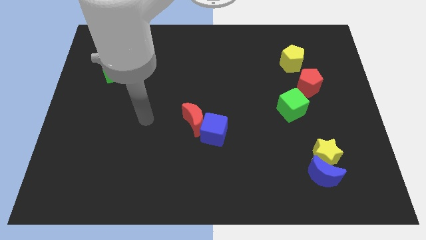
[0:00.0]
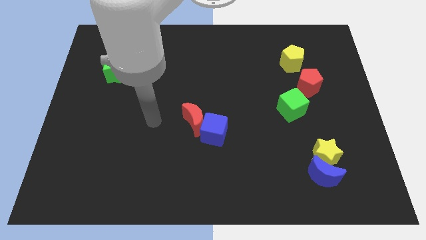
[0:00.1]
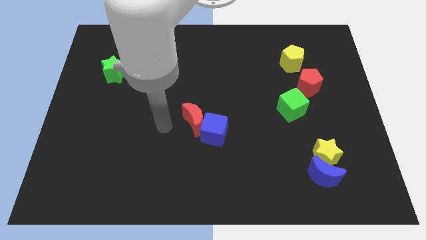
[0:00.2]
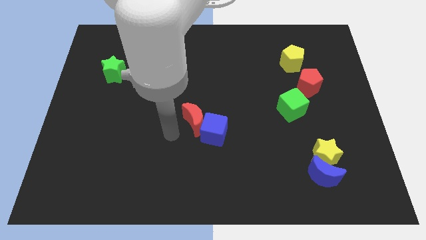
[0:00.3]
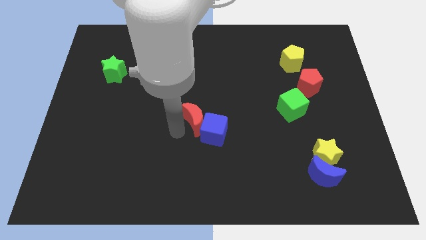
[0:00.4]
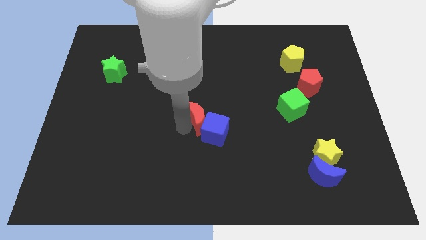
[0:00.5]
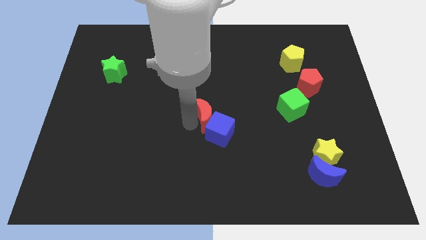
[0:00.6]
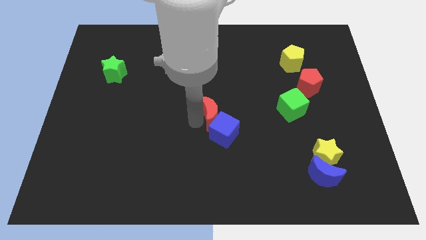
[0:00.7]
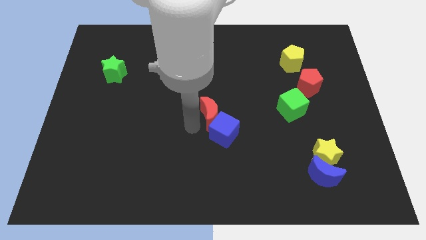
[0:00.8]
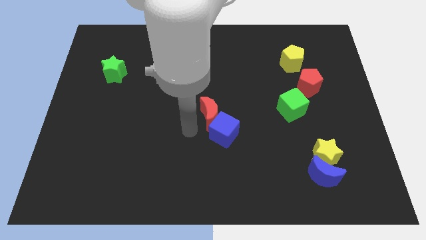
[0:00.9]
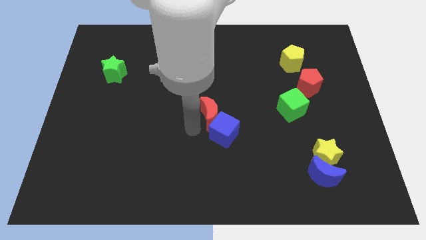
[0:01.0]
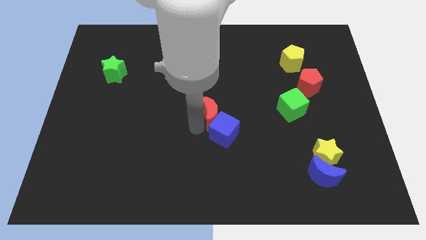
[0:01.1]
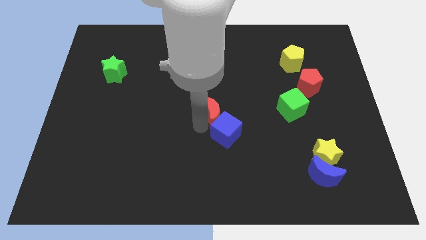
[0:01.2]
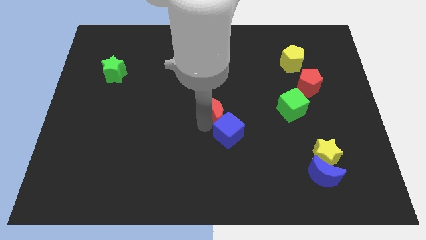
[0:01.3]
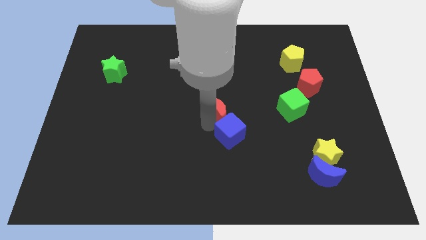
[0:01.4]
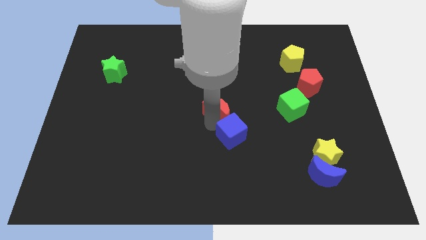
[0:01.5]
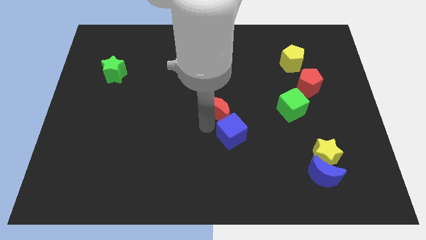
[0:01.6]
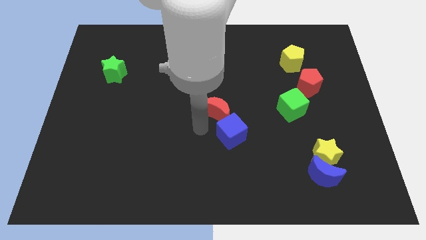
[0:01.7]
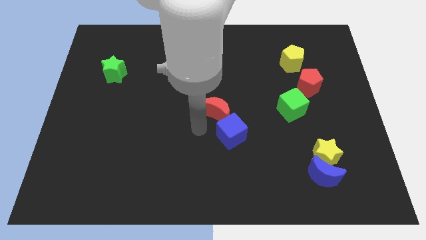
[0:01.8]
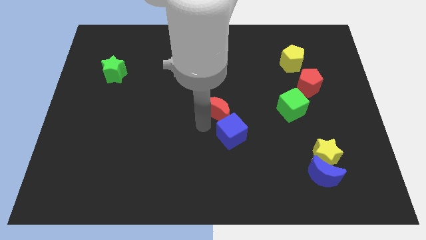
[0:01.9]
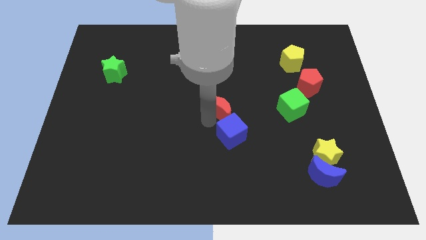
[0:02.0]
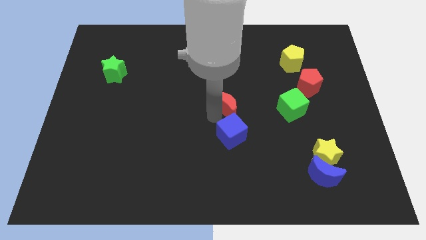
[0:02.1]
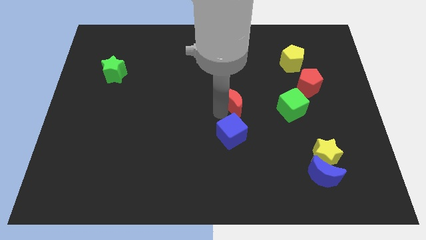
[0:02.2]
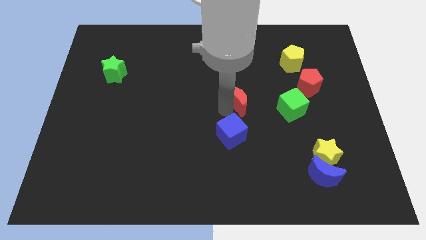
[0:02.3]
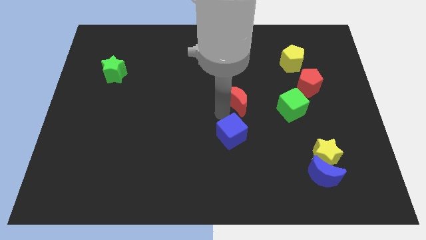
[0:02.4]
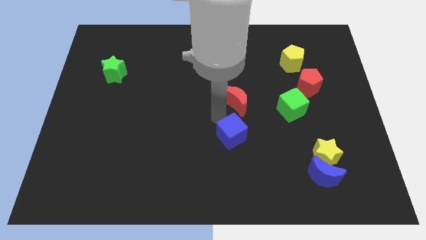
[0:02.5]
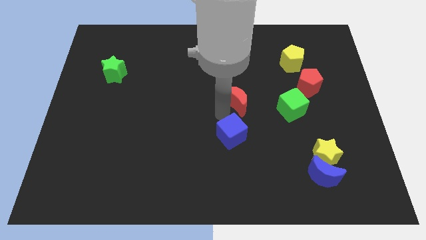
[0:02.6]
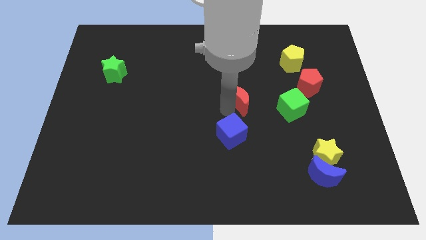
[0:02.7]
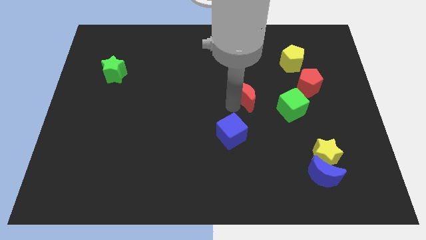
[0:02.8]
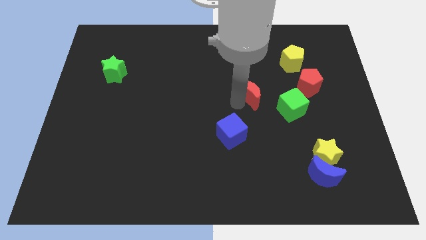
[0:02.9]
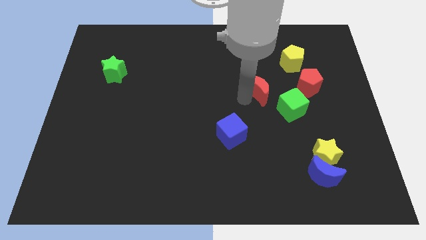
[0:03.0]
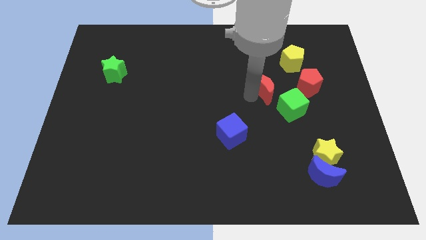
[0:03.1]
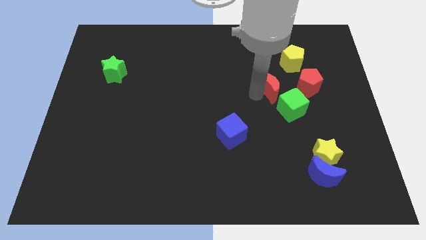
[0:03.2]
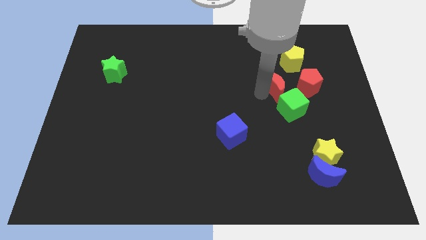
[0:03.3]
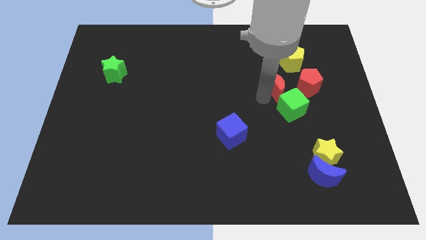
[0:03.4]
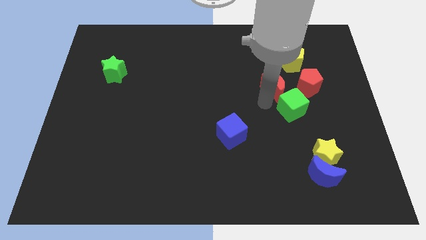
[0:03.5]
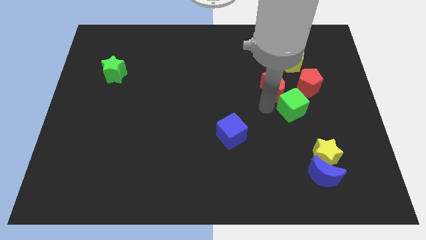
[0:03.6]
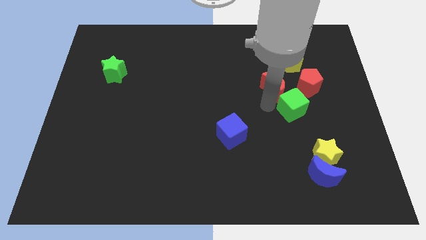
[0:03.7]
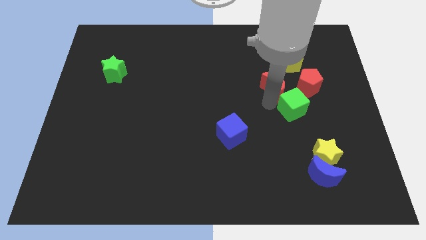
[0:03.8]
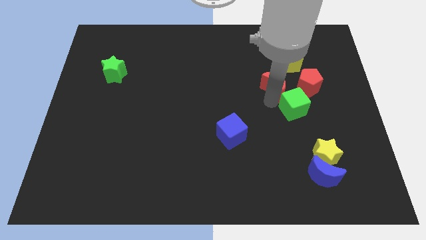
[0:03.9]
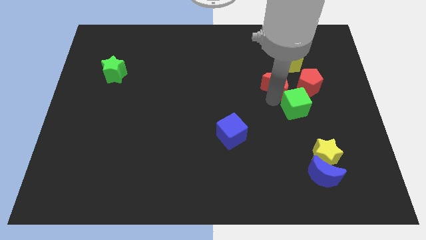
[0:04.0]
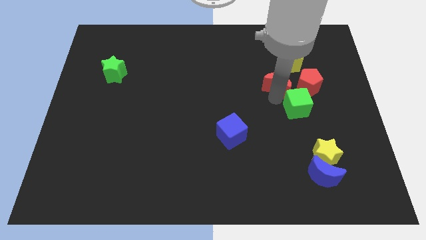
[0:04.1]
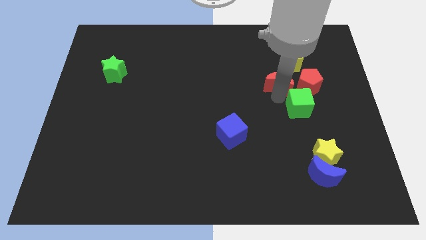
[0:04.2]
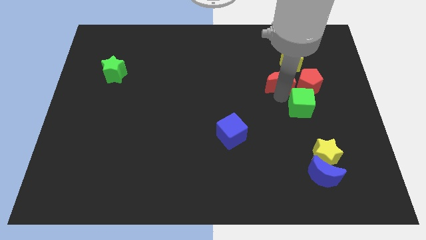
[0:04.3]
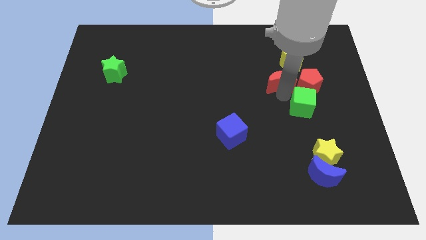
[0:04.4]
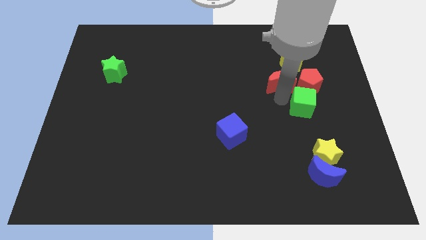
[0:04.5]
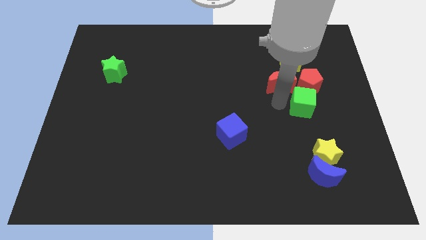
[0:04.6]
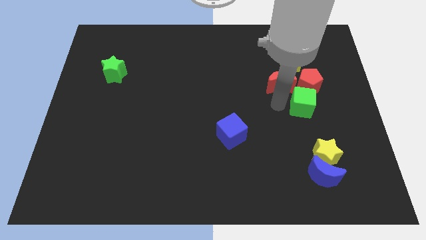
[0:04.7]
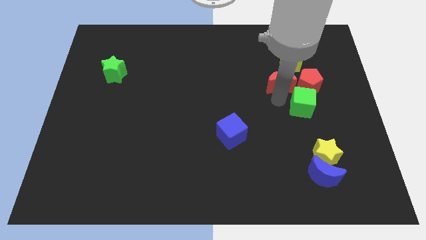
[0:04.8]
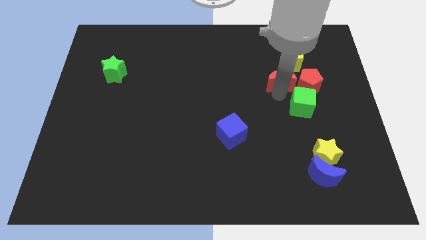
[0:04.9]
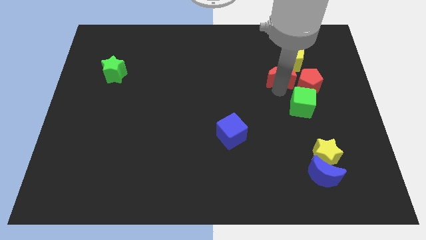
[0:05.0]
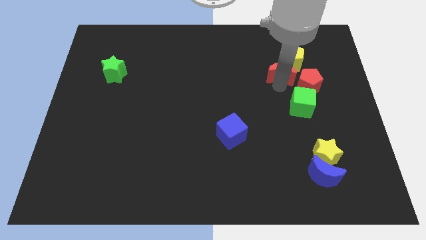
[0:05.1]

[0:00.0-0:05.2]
push the red moon next to the yellow pentagon

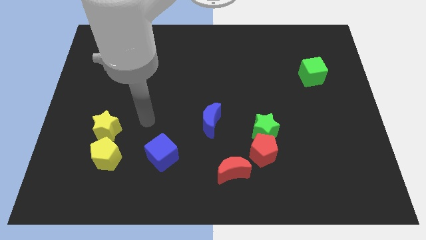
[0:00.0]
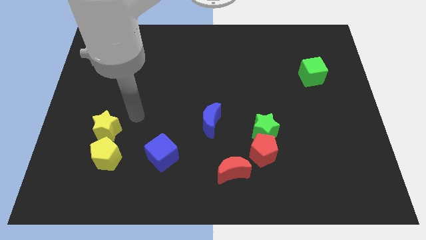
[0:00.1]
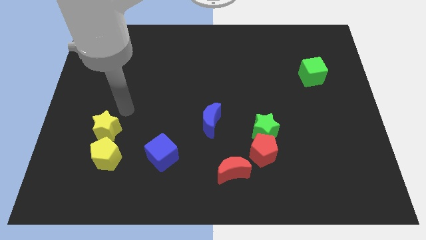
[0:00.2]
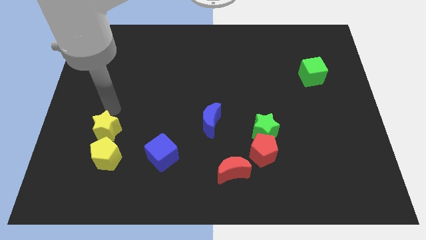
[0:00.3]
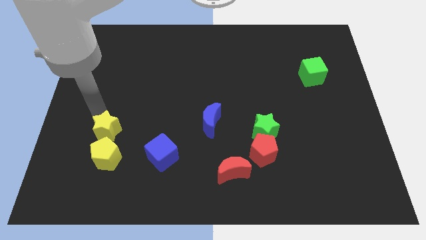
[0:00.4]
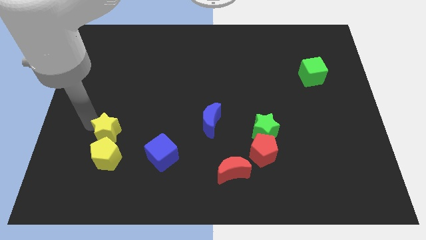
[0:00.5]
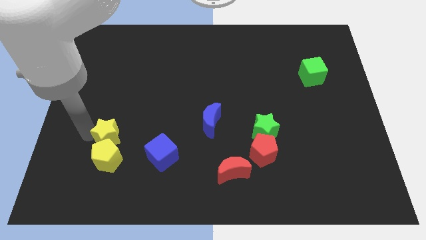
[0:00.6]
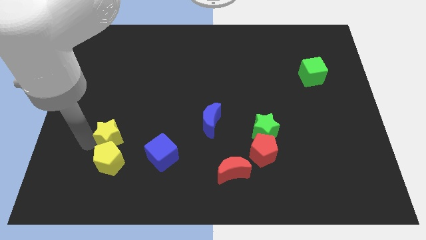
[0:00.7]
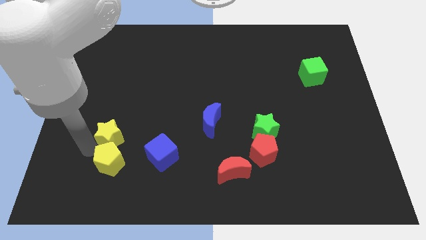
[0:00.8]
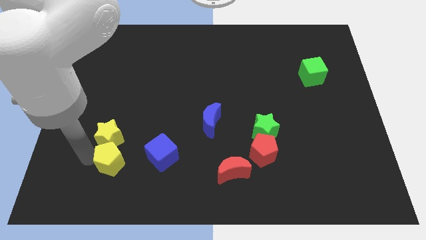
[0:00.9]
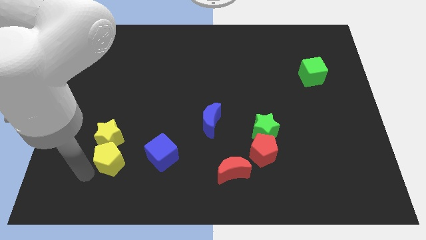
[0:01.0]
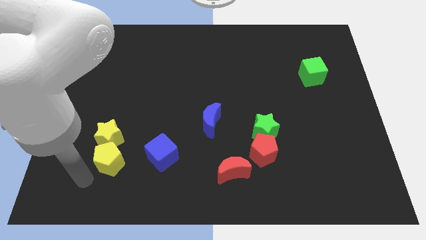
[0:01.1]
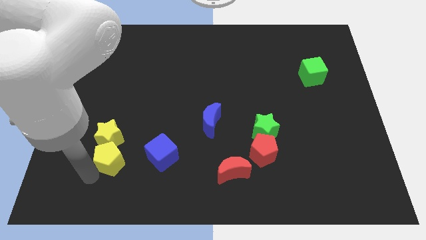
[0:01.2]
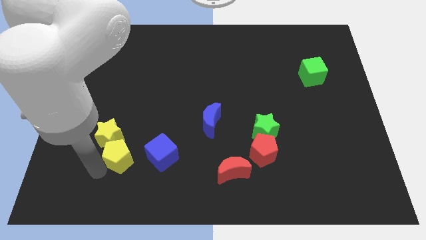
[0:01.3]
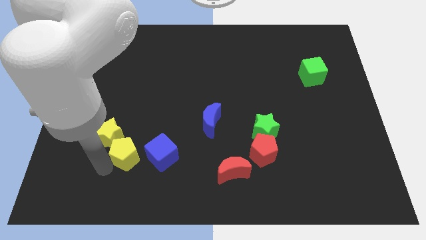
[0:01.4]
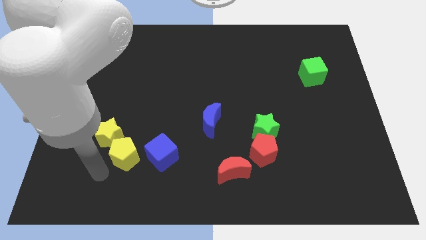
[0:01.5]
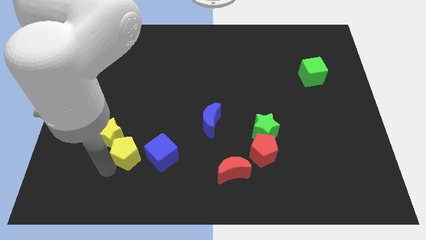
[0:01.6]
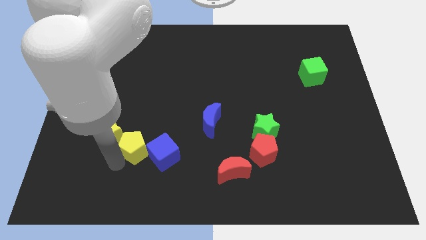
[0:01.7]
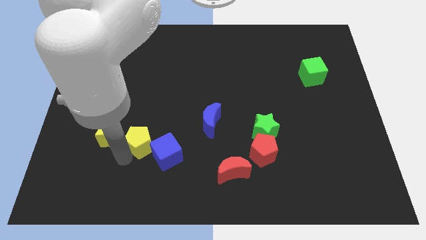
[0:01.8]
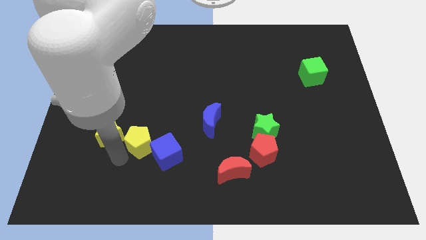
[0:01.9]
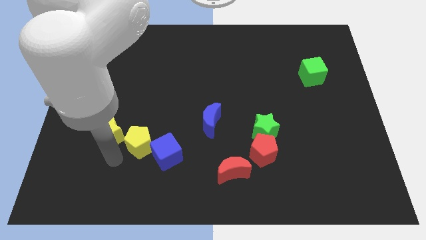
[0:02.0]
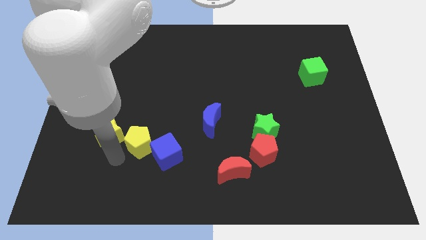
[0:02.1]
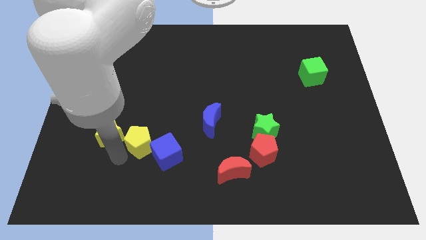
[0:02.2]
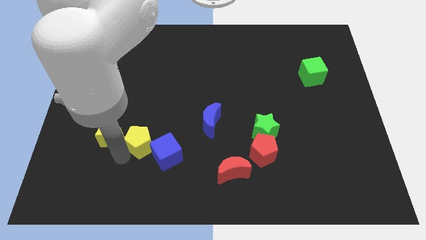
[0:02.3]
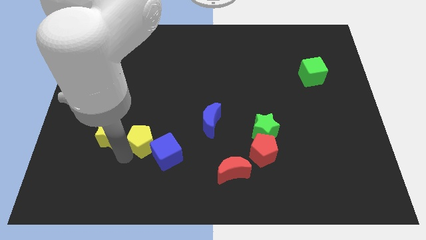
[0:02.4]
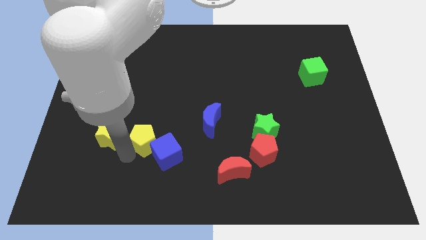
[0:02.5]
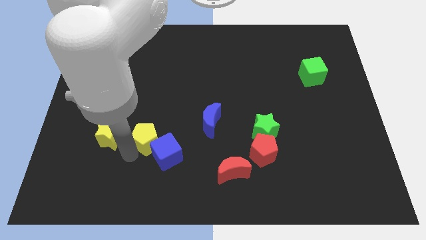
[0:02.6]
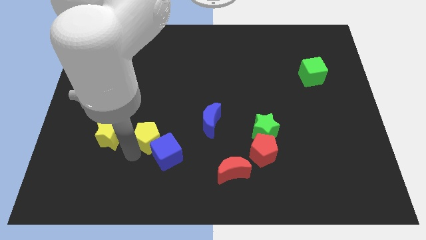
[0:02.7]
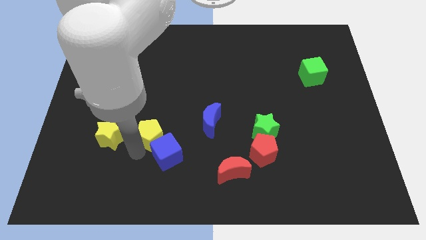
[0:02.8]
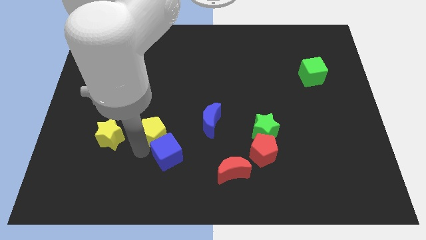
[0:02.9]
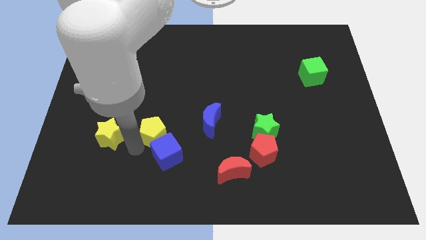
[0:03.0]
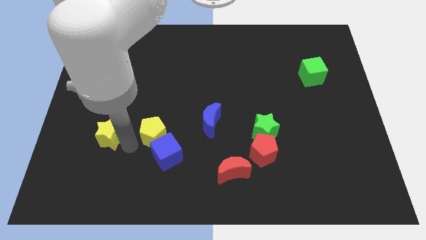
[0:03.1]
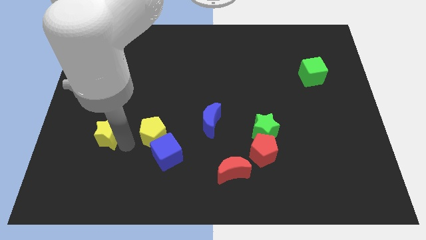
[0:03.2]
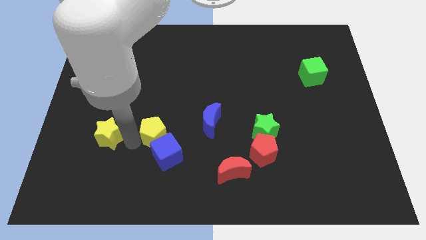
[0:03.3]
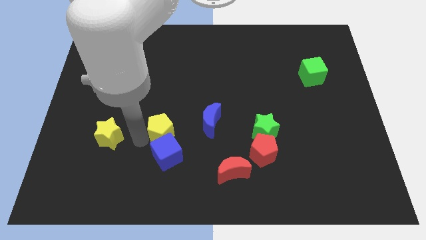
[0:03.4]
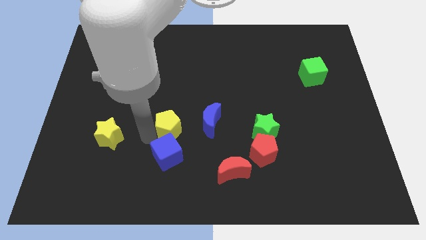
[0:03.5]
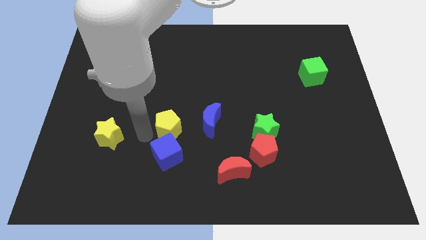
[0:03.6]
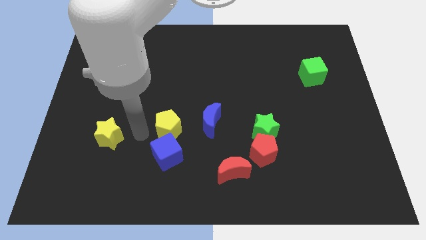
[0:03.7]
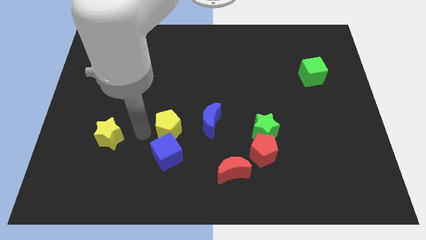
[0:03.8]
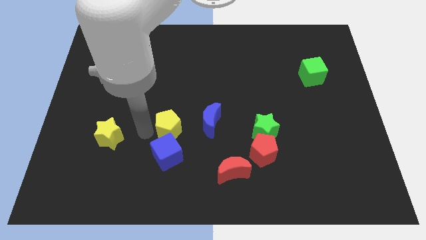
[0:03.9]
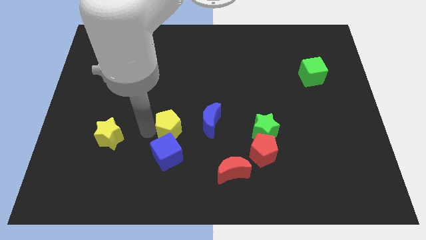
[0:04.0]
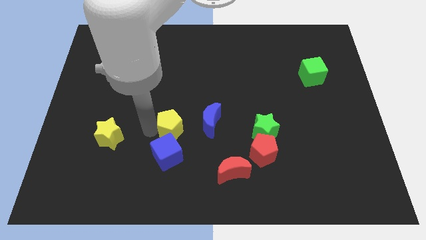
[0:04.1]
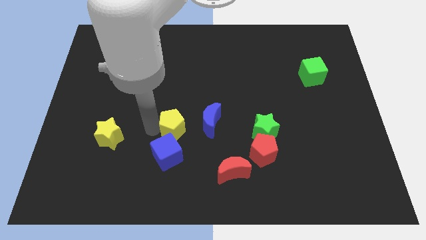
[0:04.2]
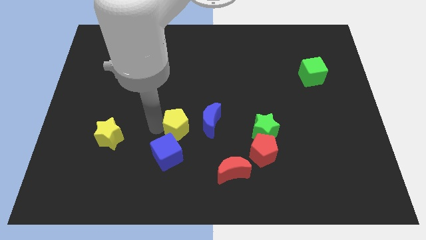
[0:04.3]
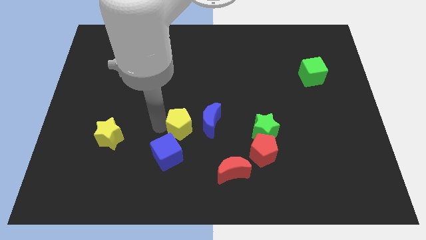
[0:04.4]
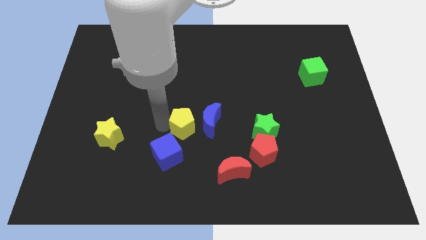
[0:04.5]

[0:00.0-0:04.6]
push the yellow pentagon to the blue moon
